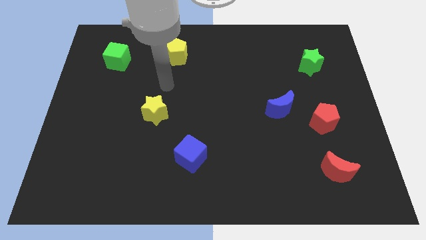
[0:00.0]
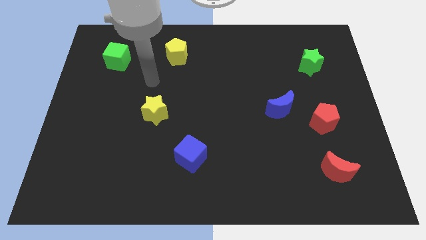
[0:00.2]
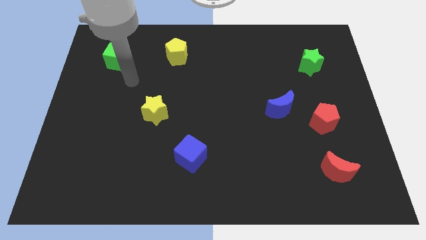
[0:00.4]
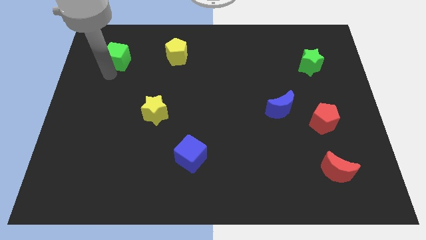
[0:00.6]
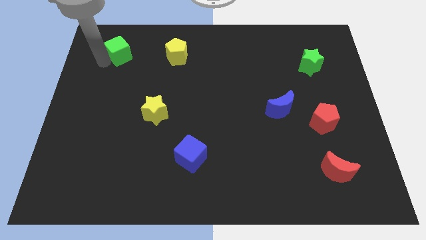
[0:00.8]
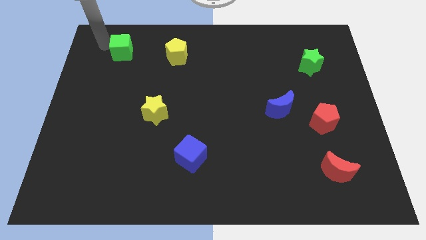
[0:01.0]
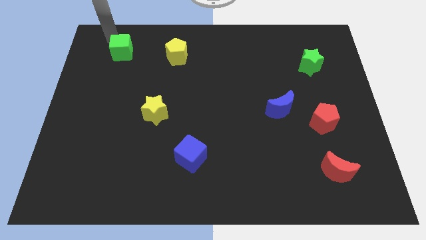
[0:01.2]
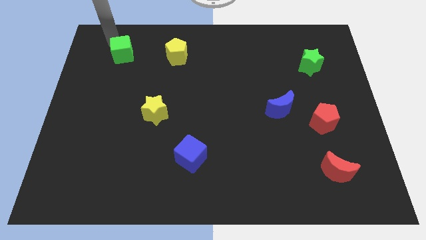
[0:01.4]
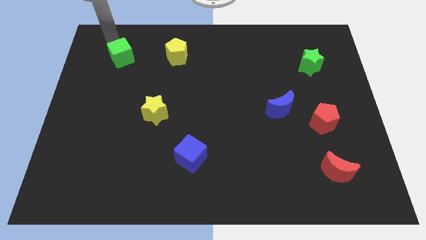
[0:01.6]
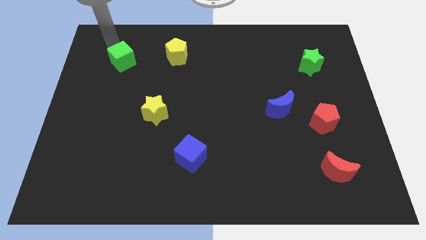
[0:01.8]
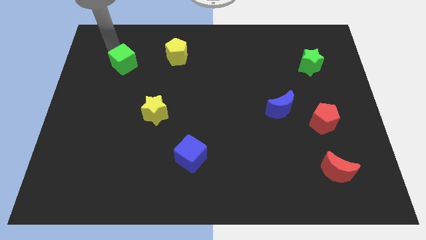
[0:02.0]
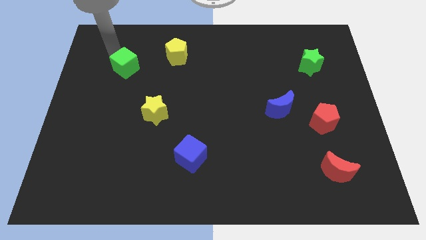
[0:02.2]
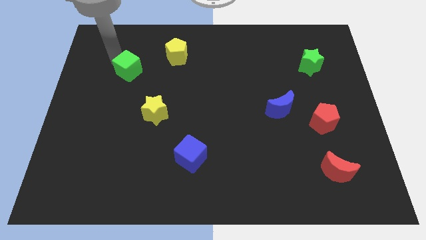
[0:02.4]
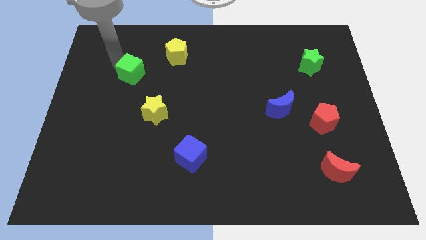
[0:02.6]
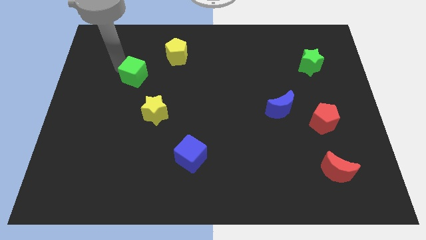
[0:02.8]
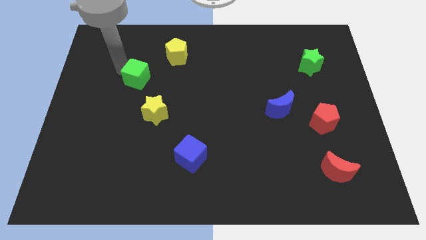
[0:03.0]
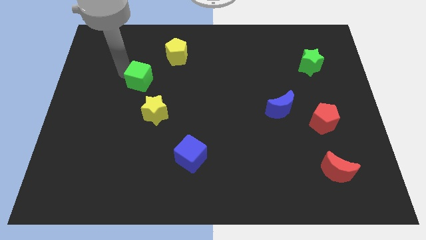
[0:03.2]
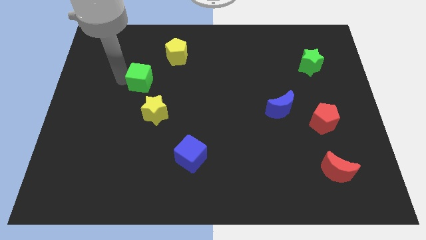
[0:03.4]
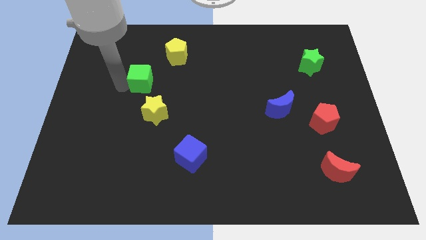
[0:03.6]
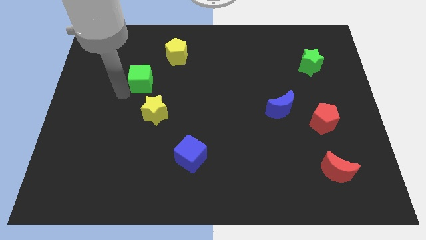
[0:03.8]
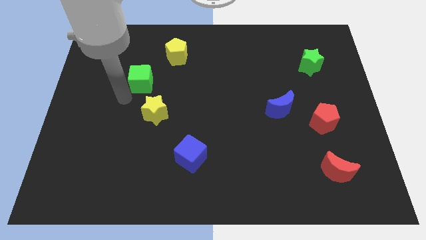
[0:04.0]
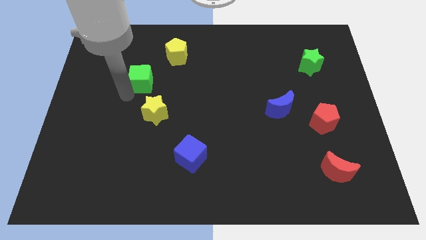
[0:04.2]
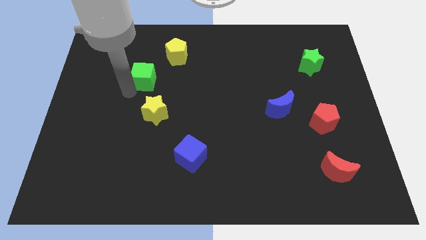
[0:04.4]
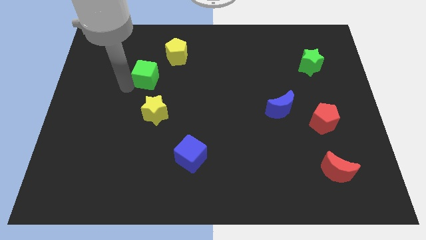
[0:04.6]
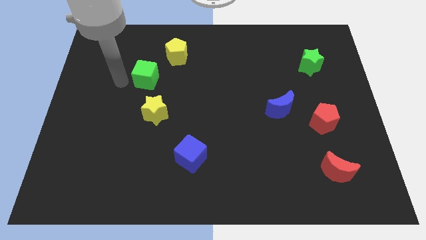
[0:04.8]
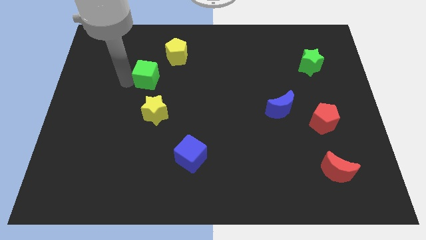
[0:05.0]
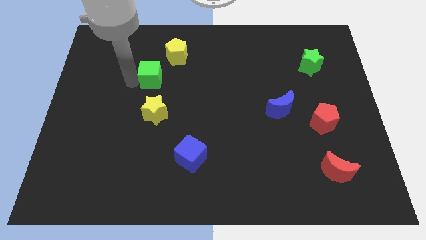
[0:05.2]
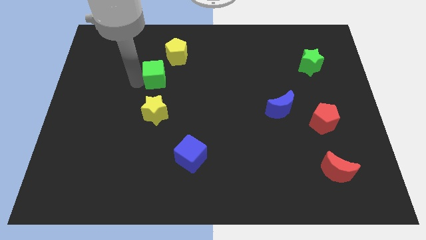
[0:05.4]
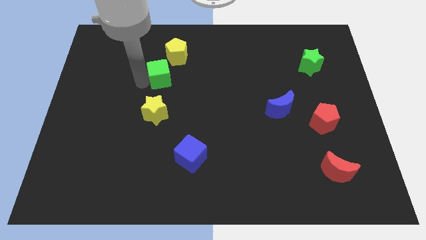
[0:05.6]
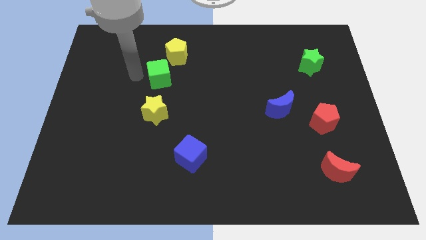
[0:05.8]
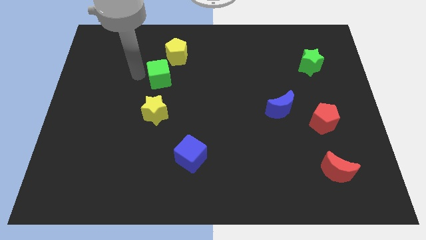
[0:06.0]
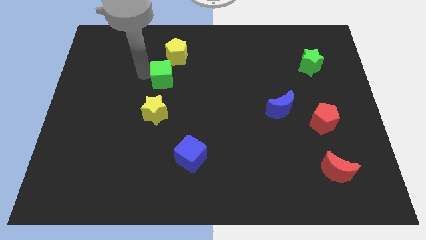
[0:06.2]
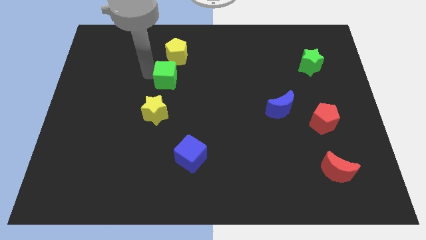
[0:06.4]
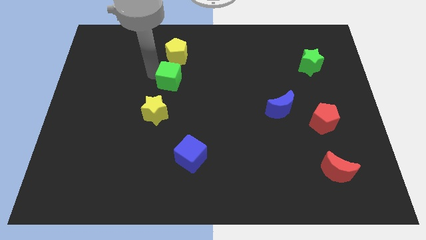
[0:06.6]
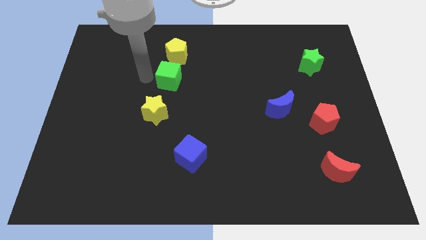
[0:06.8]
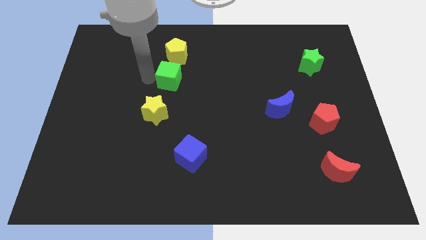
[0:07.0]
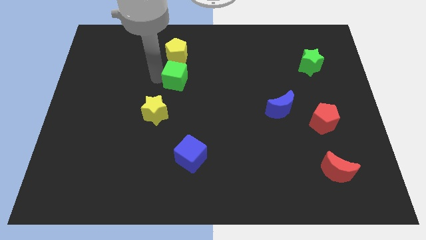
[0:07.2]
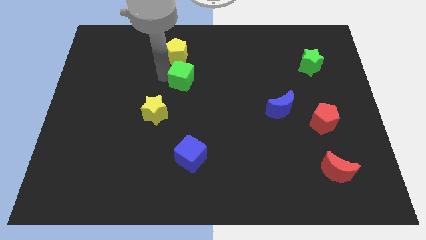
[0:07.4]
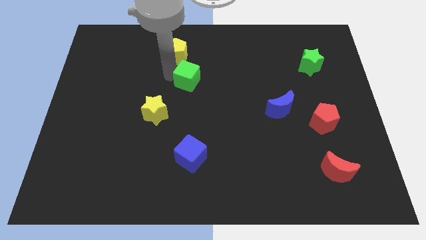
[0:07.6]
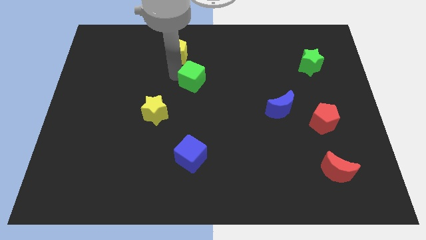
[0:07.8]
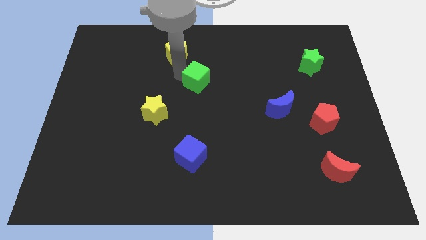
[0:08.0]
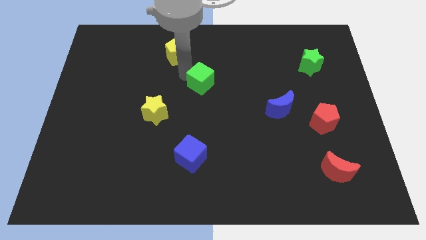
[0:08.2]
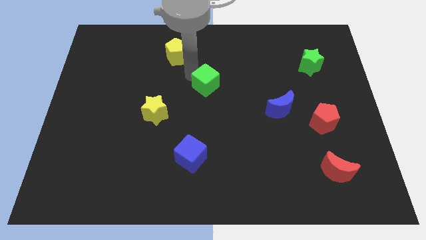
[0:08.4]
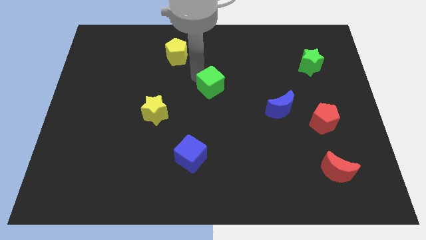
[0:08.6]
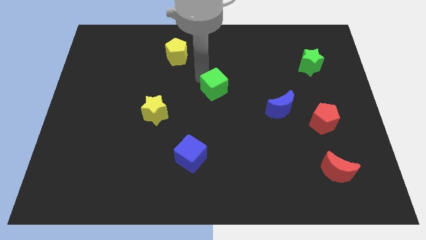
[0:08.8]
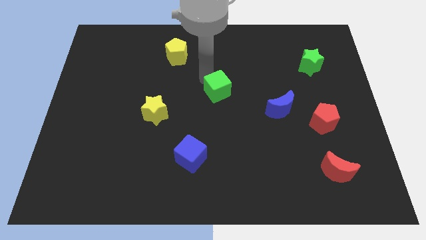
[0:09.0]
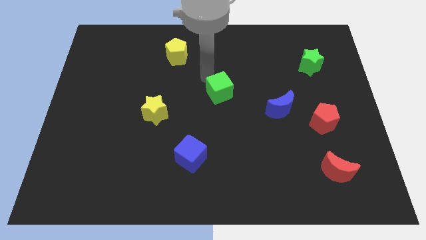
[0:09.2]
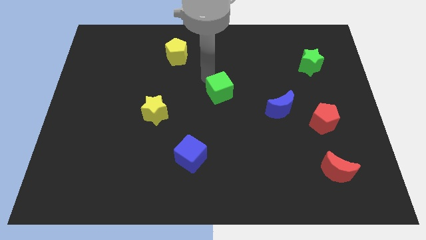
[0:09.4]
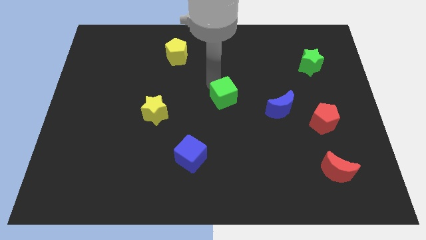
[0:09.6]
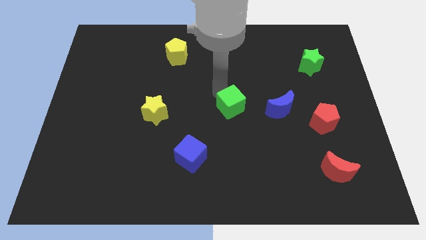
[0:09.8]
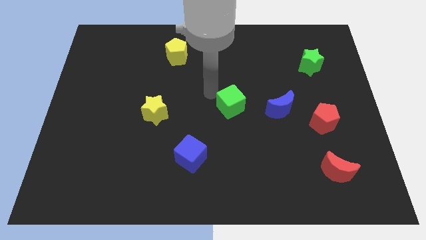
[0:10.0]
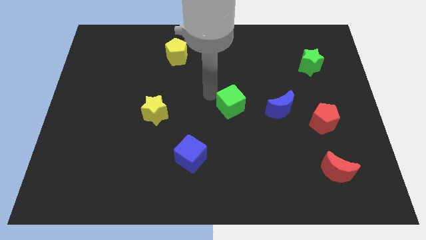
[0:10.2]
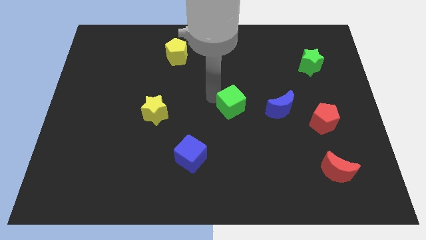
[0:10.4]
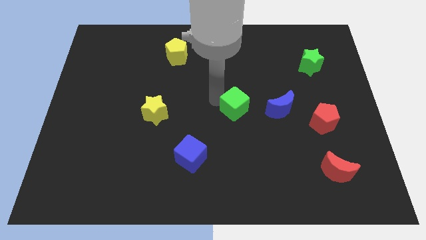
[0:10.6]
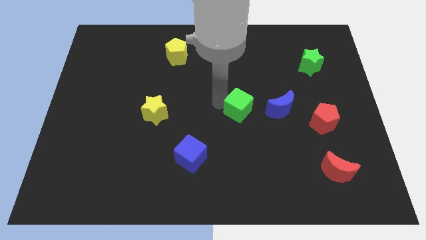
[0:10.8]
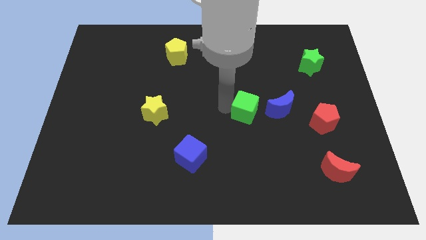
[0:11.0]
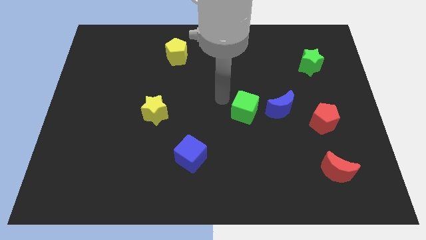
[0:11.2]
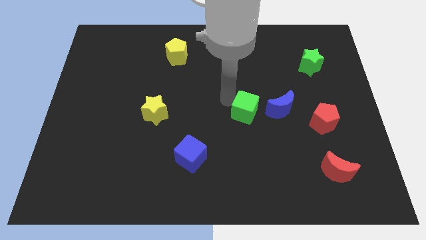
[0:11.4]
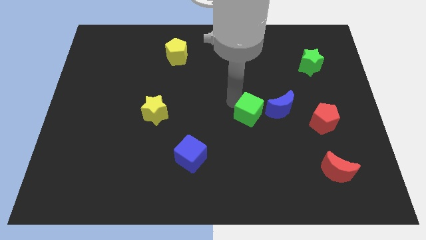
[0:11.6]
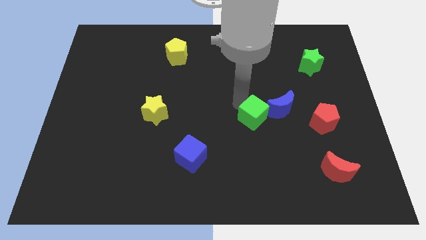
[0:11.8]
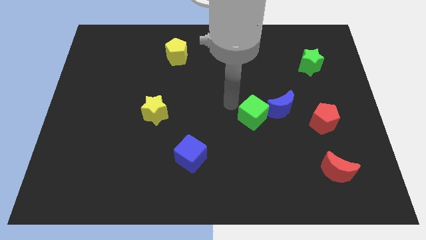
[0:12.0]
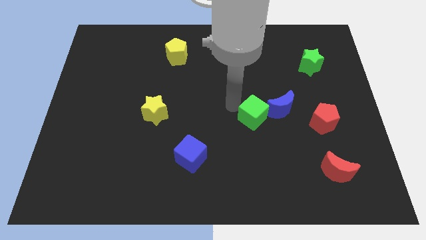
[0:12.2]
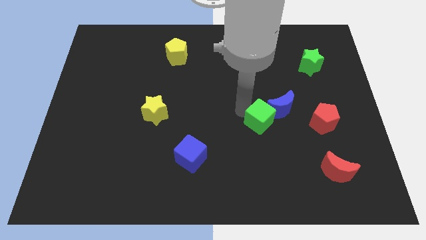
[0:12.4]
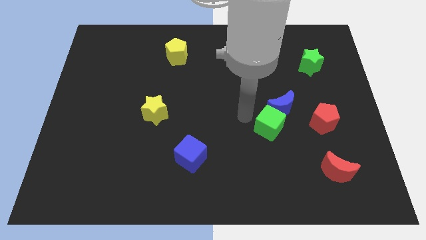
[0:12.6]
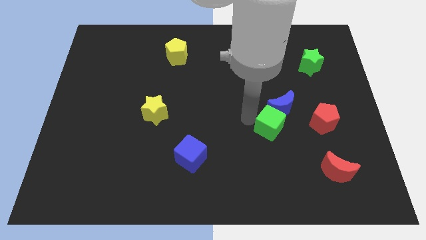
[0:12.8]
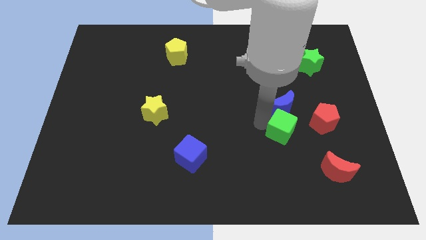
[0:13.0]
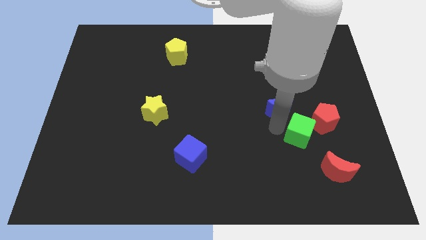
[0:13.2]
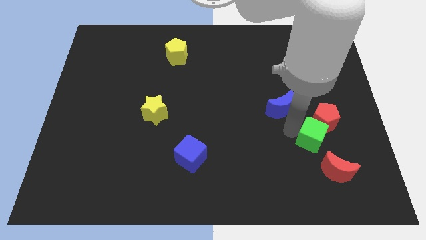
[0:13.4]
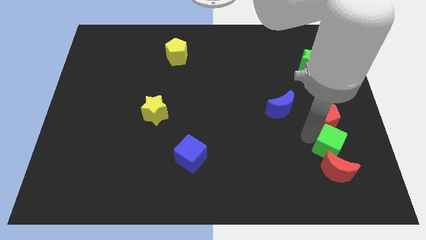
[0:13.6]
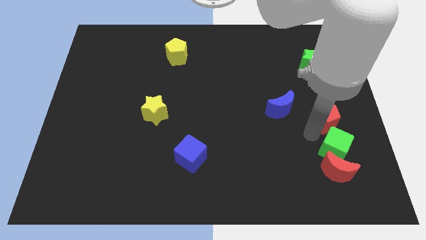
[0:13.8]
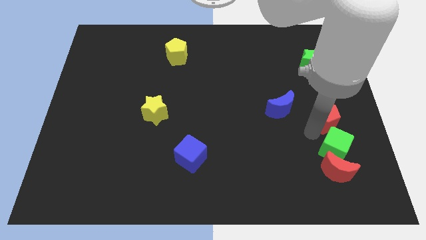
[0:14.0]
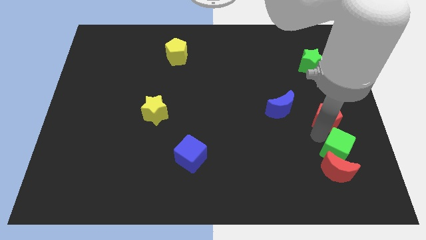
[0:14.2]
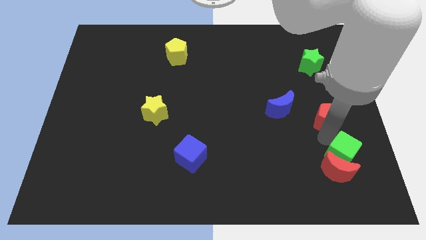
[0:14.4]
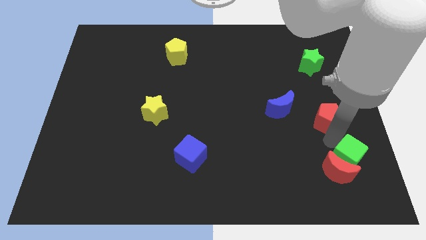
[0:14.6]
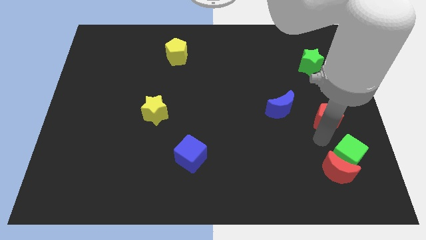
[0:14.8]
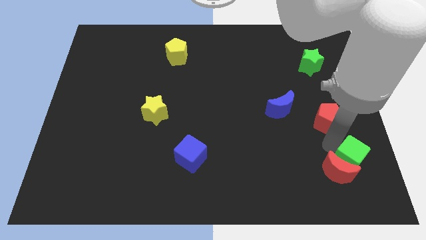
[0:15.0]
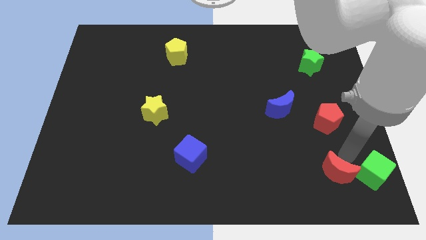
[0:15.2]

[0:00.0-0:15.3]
put the green cube to the bottom right corner
